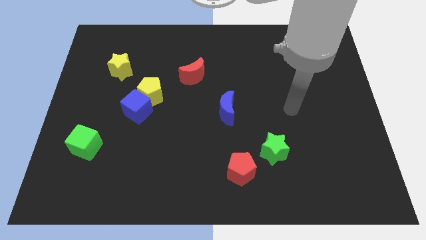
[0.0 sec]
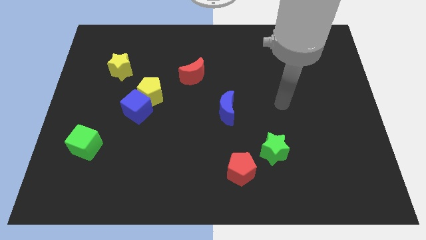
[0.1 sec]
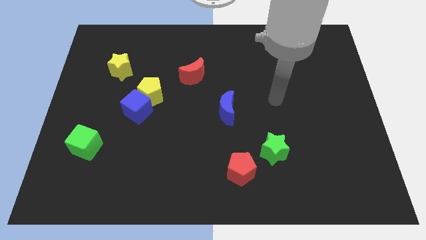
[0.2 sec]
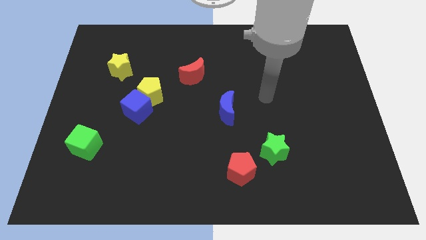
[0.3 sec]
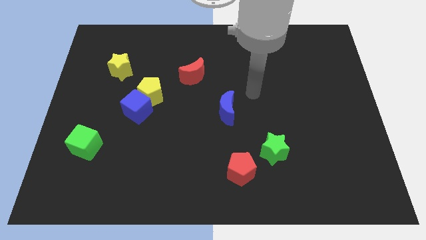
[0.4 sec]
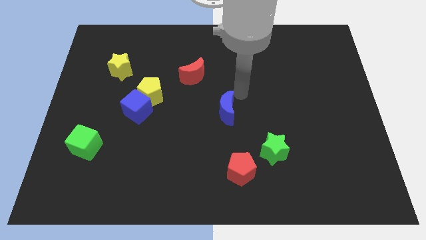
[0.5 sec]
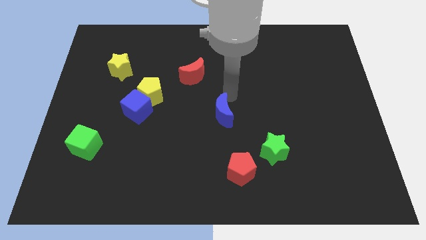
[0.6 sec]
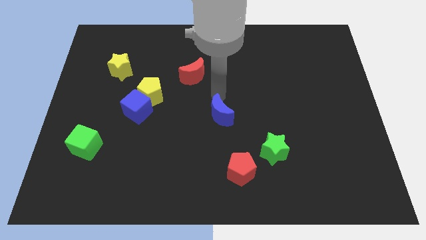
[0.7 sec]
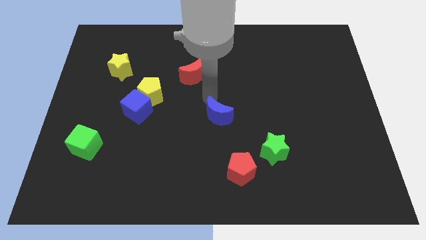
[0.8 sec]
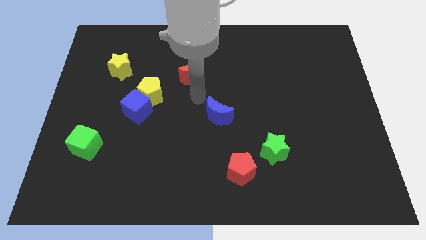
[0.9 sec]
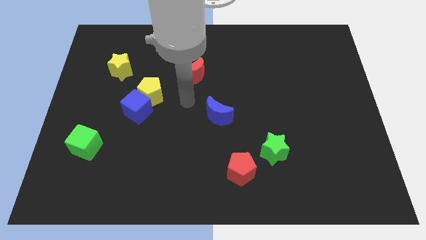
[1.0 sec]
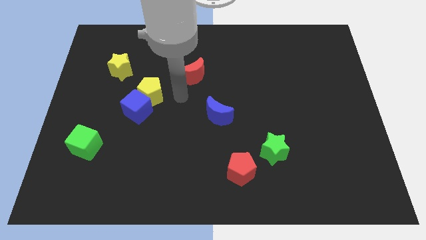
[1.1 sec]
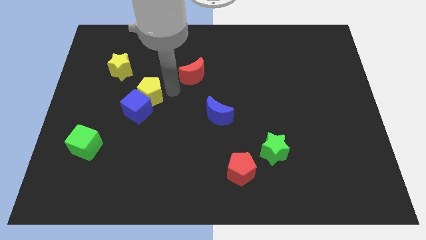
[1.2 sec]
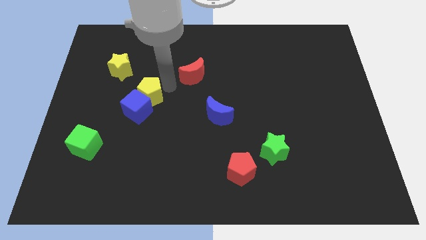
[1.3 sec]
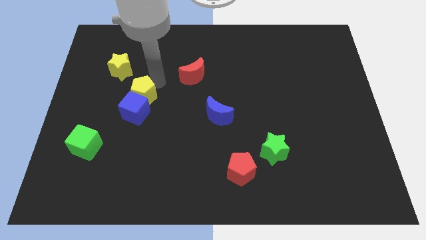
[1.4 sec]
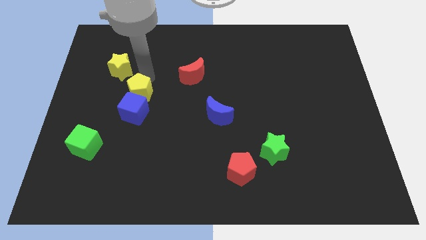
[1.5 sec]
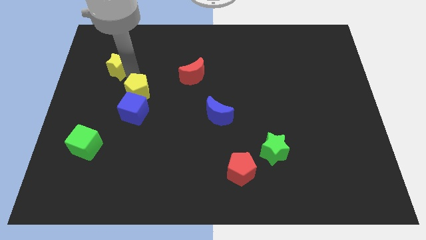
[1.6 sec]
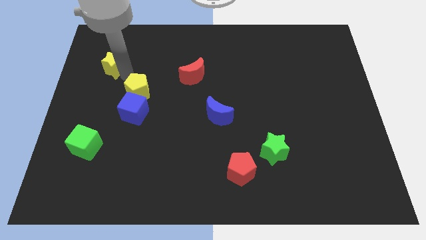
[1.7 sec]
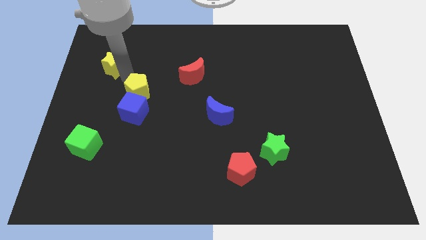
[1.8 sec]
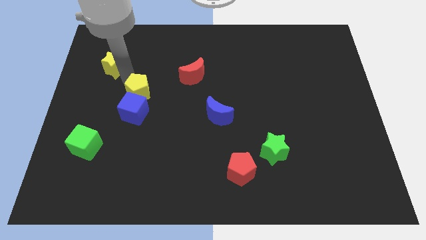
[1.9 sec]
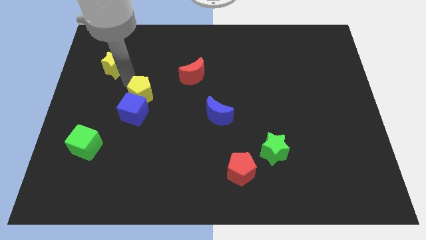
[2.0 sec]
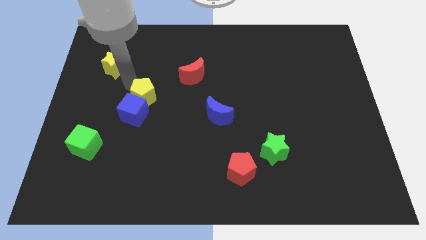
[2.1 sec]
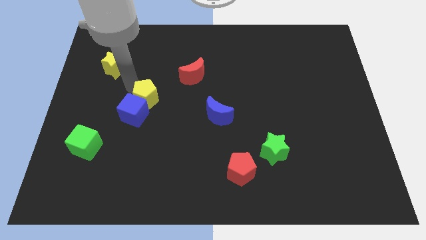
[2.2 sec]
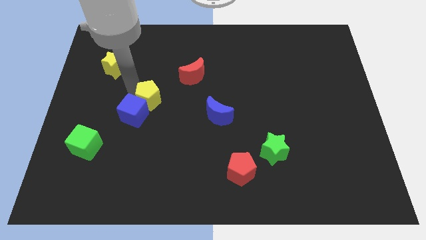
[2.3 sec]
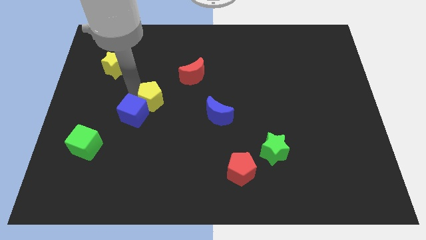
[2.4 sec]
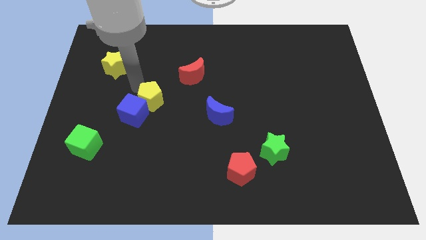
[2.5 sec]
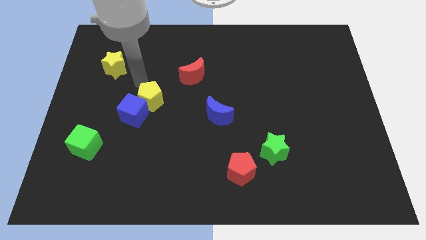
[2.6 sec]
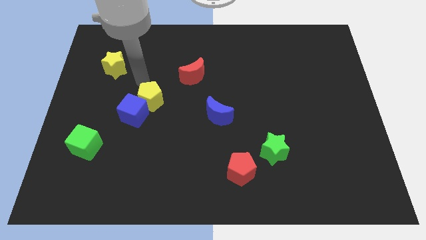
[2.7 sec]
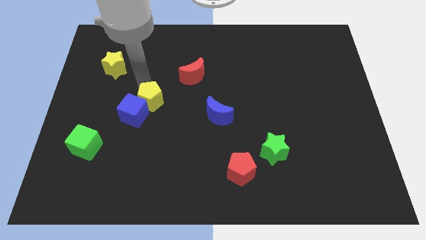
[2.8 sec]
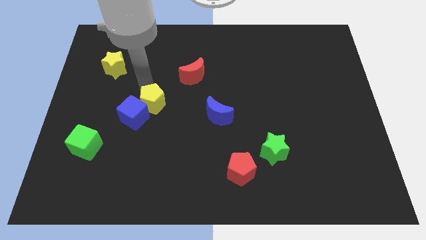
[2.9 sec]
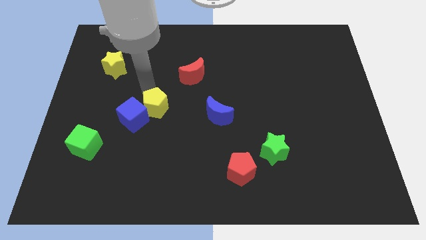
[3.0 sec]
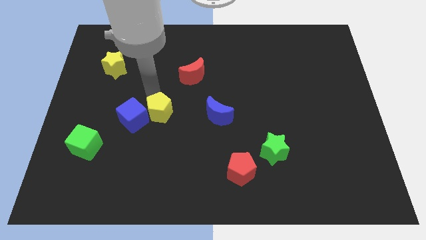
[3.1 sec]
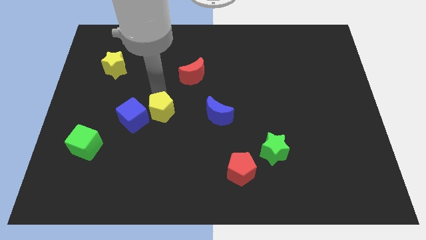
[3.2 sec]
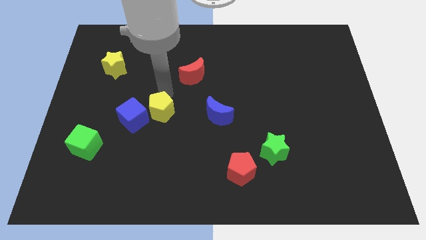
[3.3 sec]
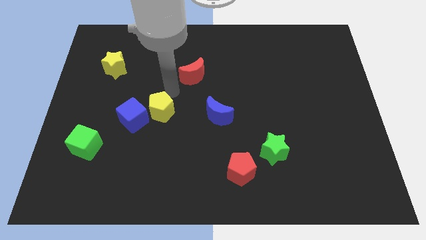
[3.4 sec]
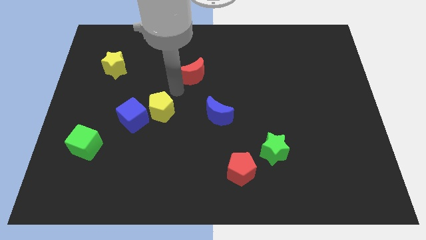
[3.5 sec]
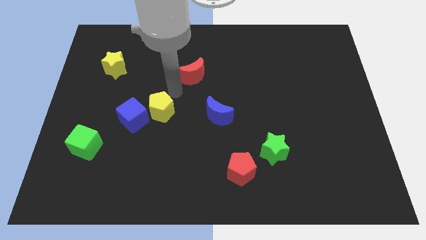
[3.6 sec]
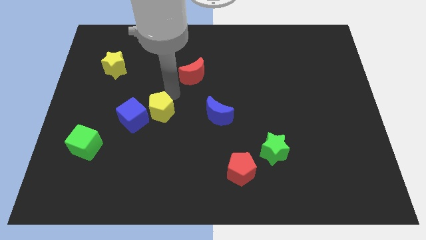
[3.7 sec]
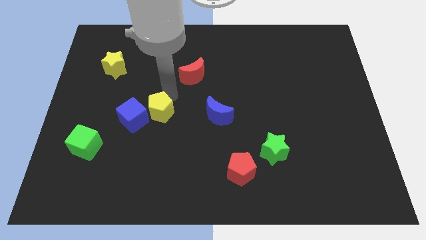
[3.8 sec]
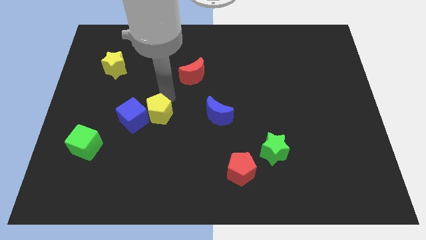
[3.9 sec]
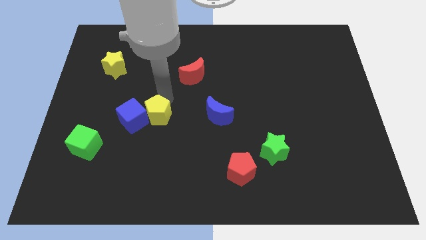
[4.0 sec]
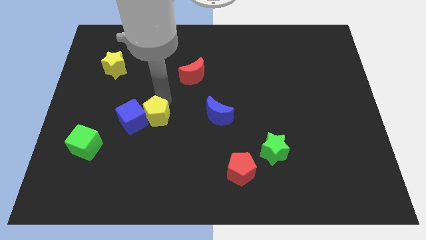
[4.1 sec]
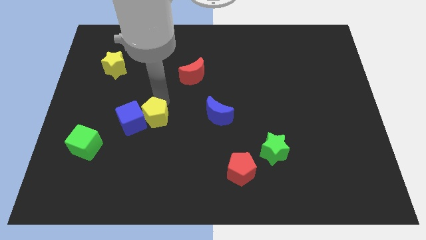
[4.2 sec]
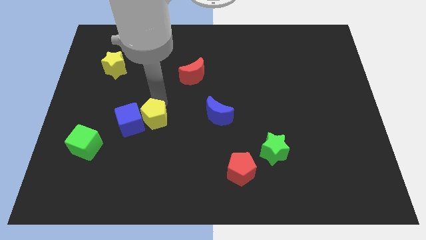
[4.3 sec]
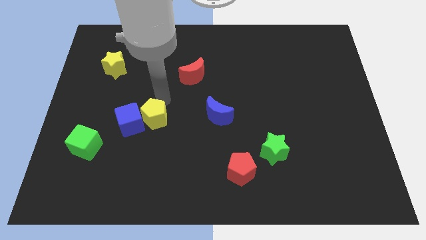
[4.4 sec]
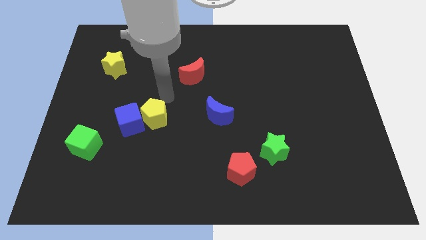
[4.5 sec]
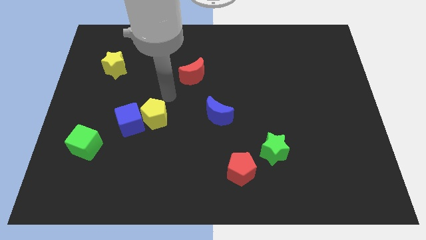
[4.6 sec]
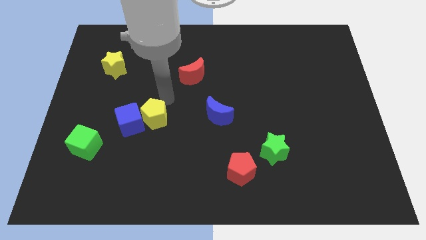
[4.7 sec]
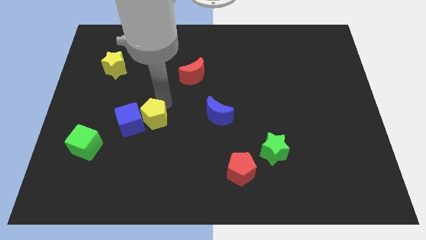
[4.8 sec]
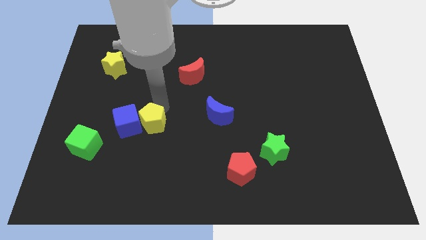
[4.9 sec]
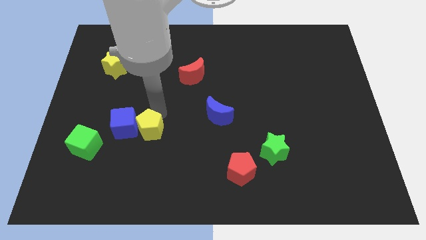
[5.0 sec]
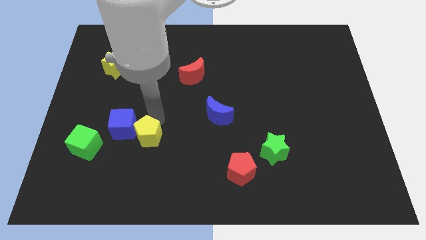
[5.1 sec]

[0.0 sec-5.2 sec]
put the yellow pentagon to the right of the green cube

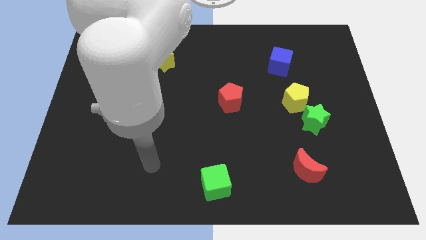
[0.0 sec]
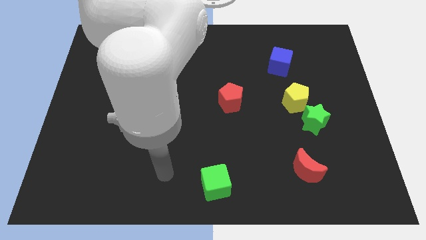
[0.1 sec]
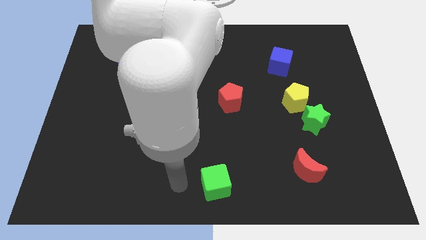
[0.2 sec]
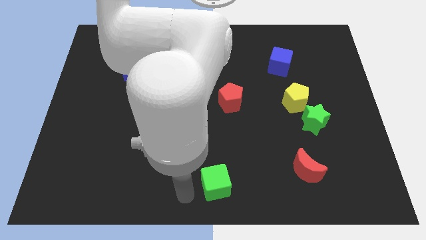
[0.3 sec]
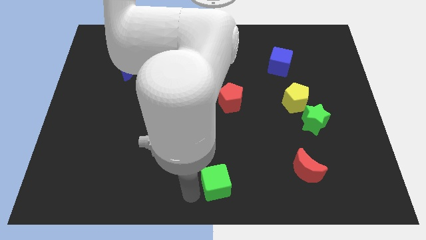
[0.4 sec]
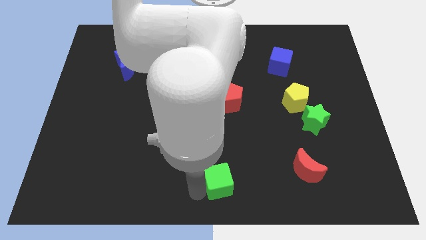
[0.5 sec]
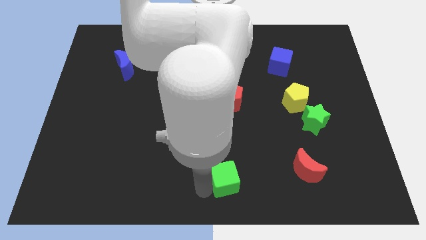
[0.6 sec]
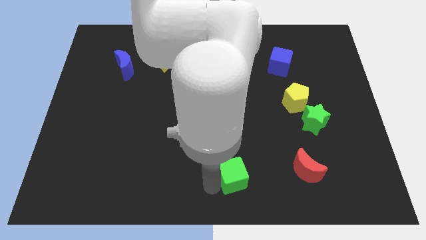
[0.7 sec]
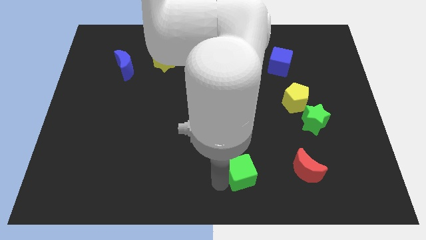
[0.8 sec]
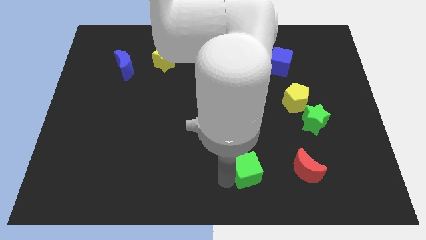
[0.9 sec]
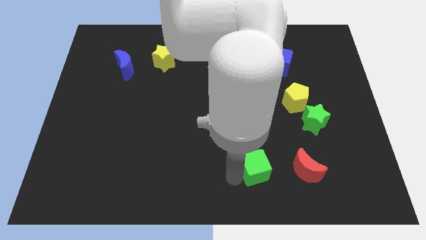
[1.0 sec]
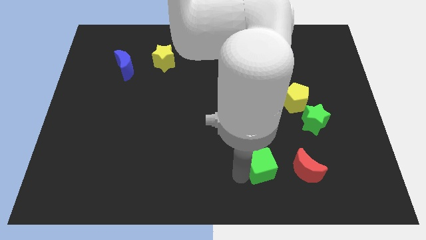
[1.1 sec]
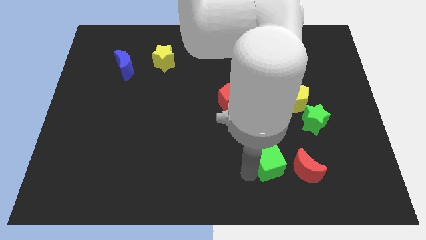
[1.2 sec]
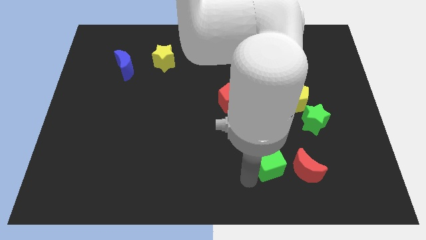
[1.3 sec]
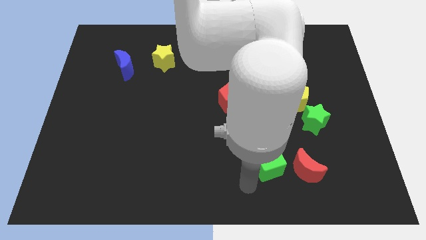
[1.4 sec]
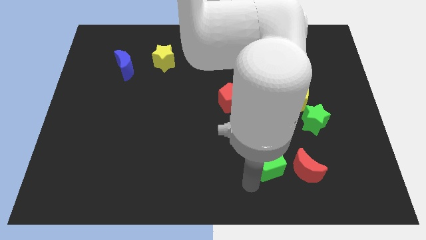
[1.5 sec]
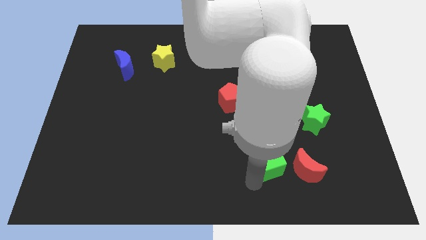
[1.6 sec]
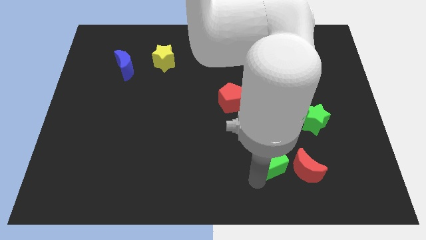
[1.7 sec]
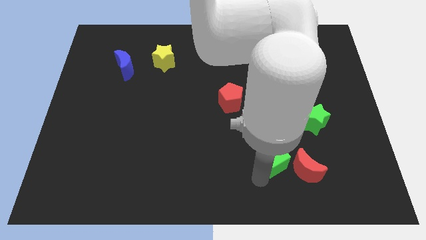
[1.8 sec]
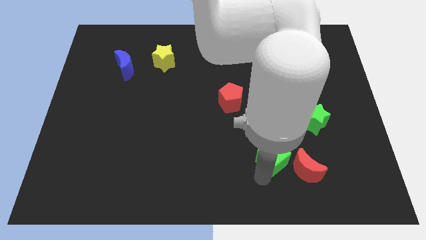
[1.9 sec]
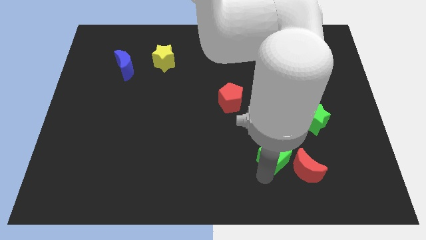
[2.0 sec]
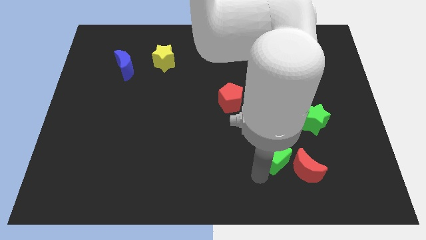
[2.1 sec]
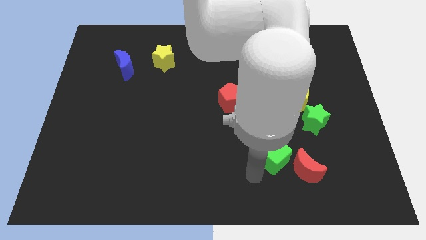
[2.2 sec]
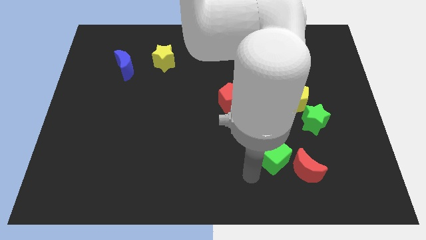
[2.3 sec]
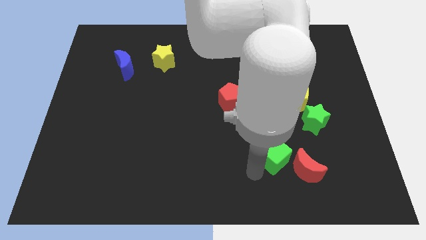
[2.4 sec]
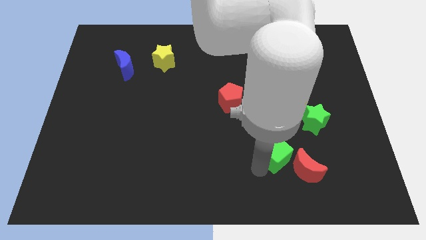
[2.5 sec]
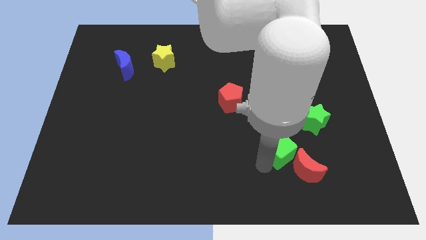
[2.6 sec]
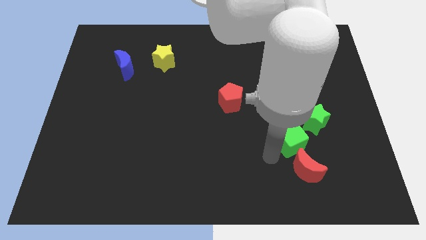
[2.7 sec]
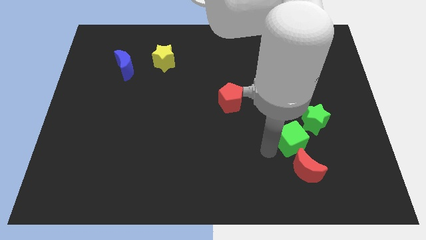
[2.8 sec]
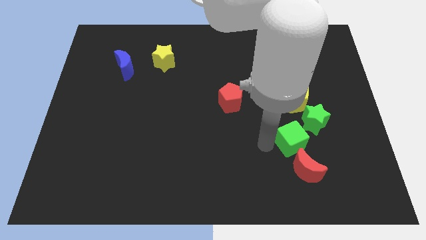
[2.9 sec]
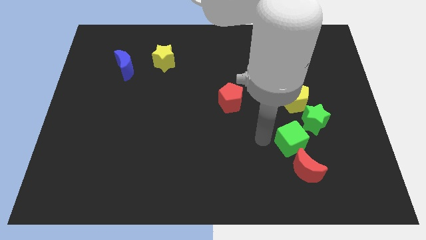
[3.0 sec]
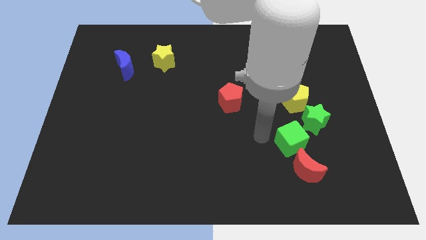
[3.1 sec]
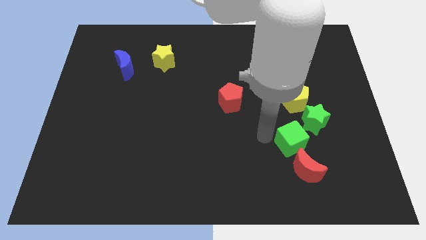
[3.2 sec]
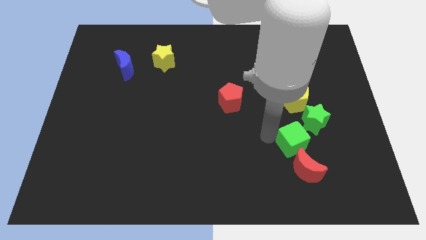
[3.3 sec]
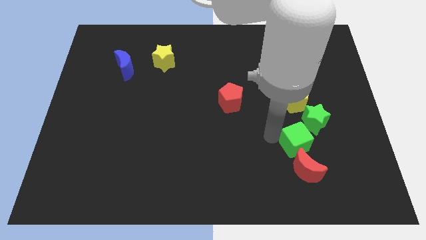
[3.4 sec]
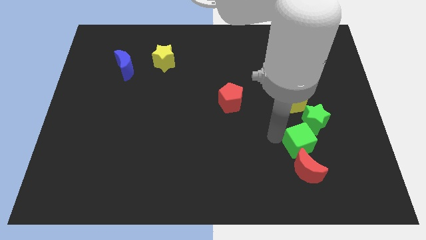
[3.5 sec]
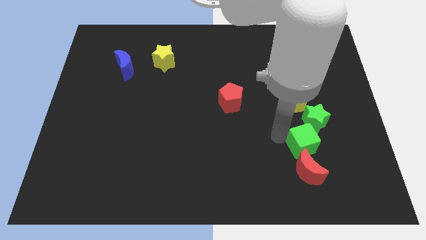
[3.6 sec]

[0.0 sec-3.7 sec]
slide the green cube to the top right side of the red moon
